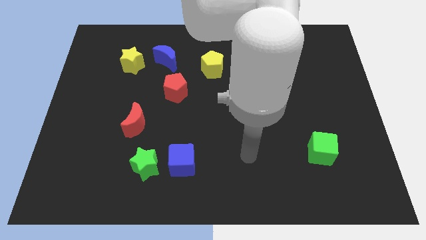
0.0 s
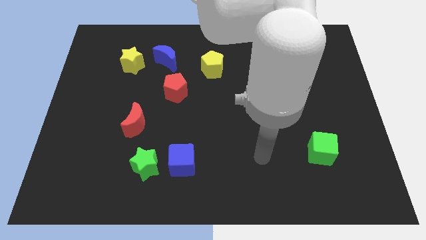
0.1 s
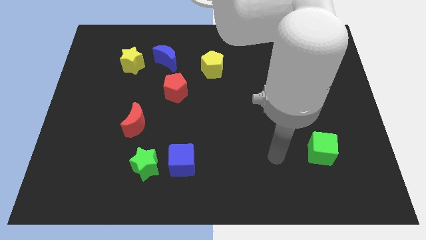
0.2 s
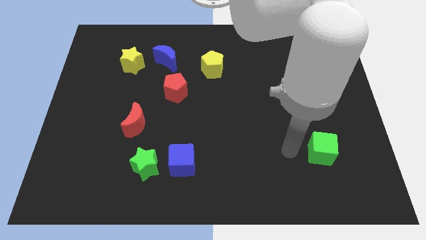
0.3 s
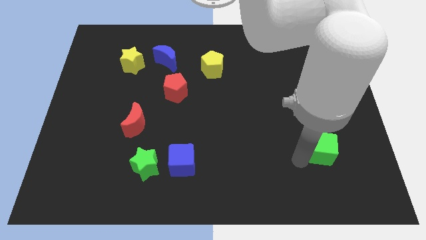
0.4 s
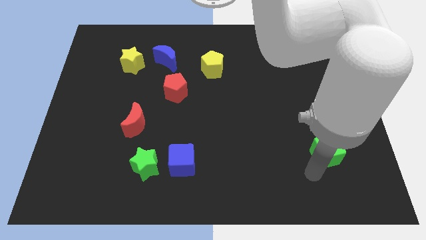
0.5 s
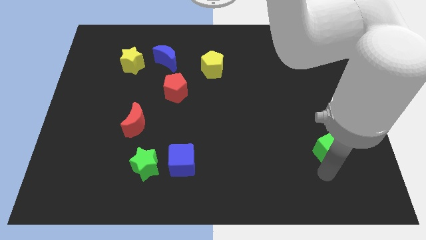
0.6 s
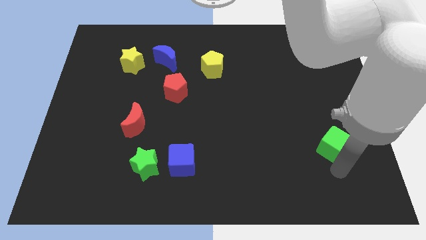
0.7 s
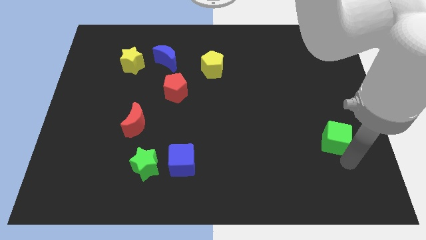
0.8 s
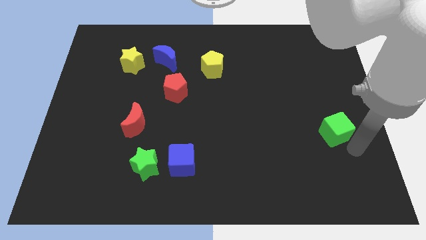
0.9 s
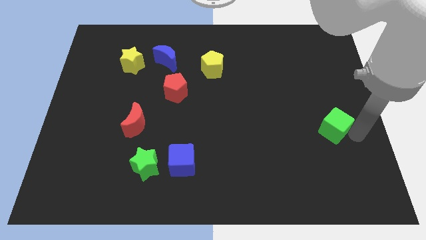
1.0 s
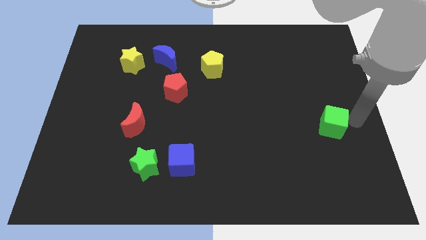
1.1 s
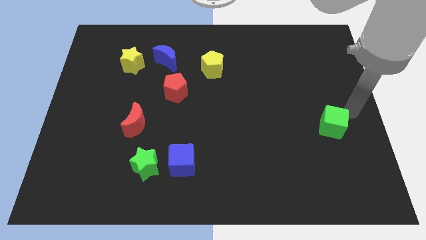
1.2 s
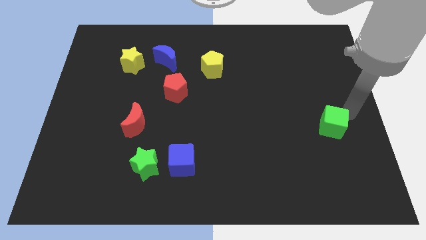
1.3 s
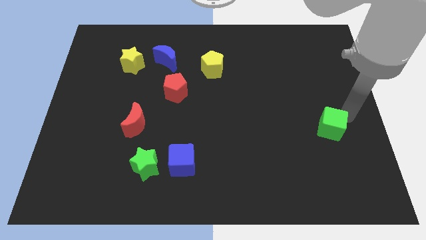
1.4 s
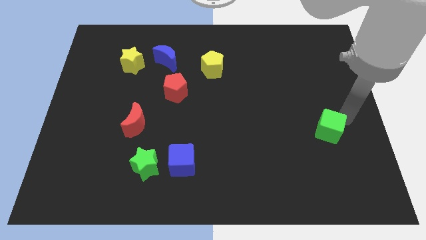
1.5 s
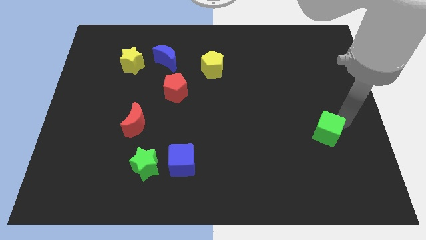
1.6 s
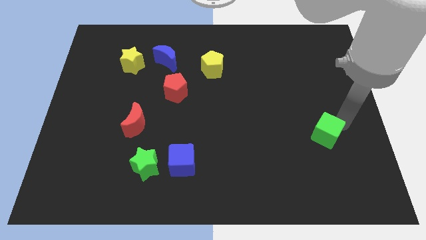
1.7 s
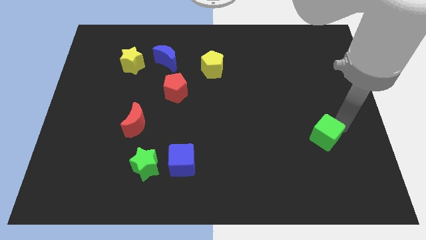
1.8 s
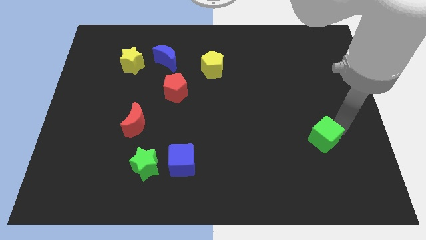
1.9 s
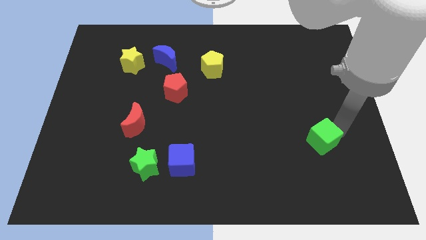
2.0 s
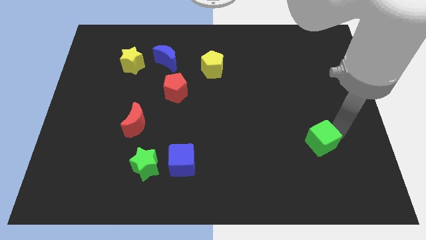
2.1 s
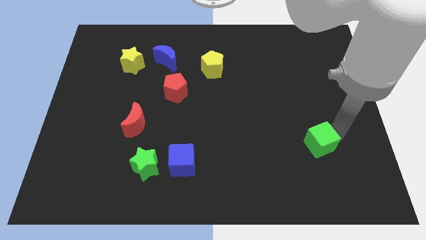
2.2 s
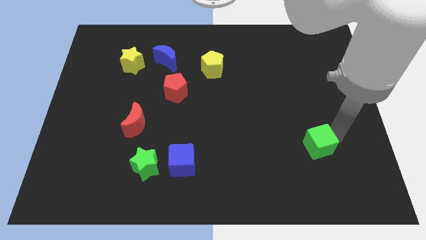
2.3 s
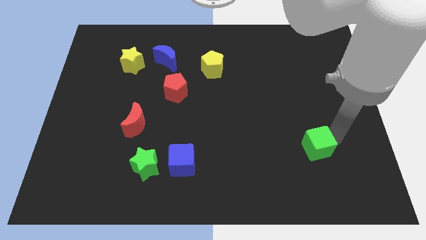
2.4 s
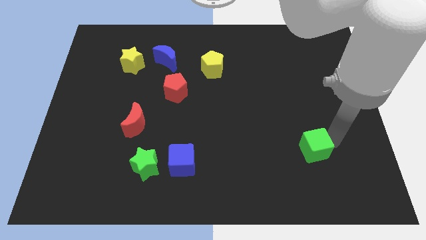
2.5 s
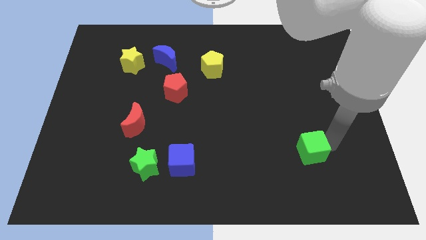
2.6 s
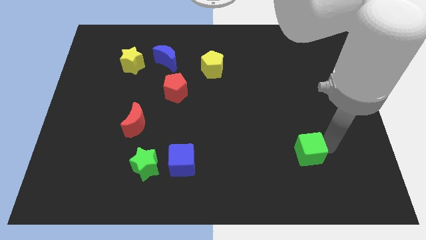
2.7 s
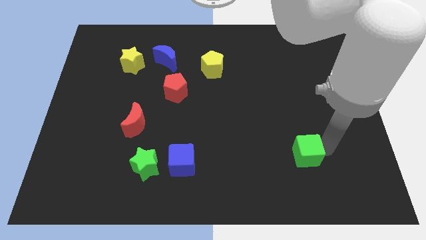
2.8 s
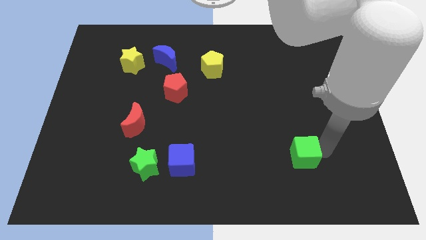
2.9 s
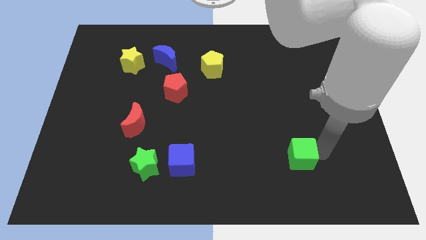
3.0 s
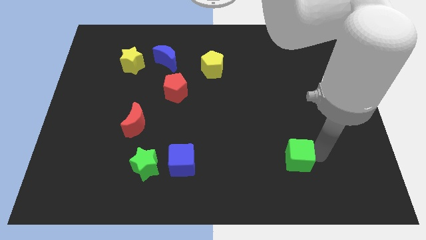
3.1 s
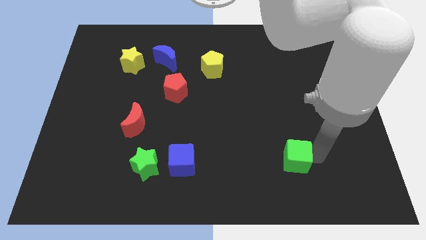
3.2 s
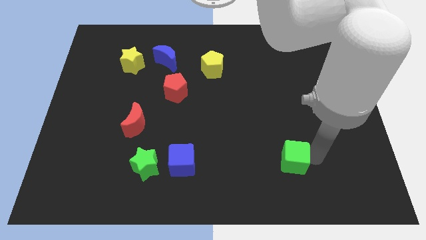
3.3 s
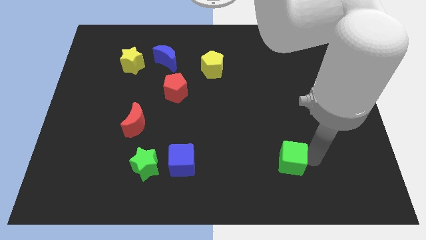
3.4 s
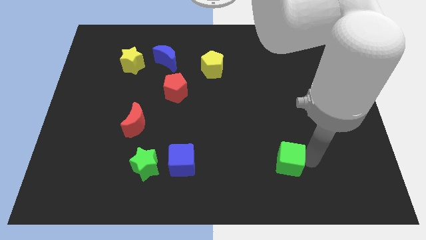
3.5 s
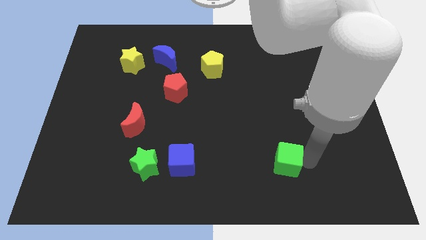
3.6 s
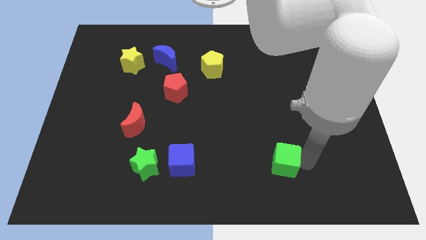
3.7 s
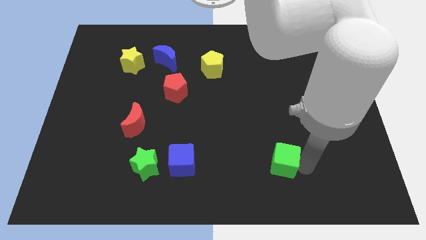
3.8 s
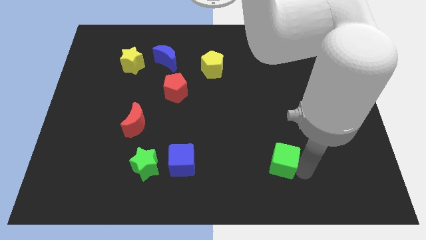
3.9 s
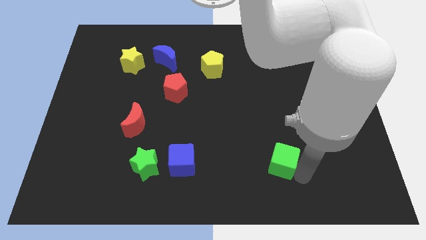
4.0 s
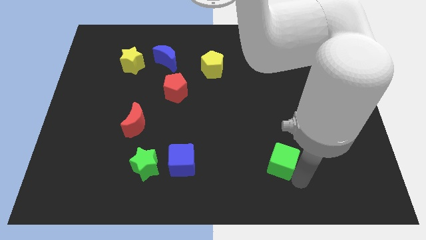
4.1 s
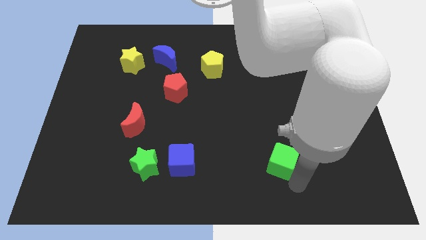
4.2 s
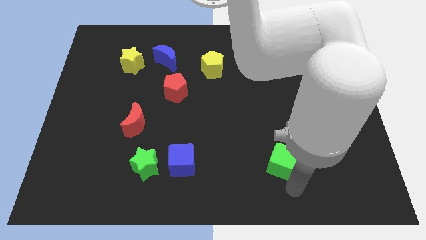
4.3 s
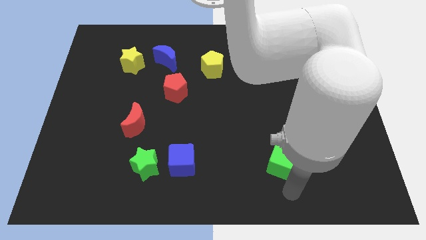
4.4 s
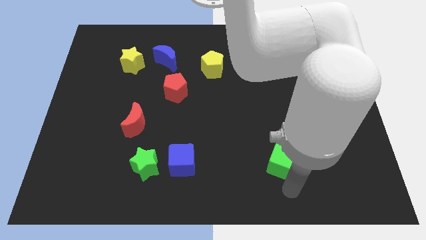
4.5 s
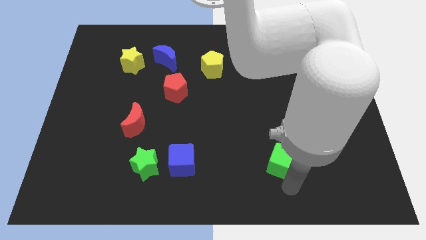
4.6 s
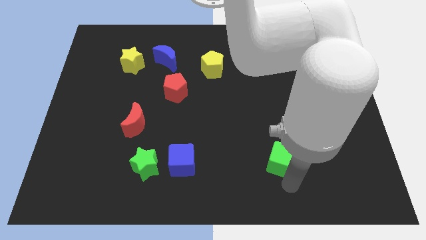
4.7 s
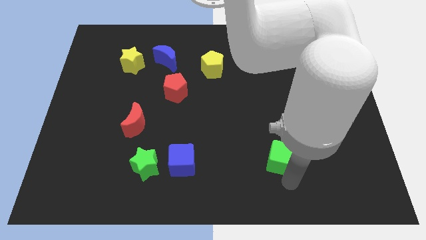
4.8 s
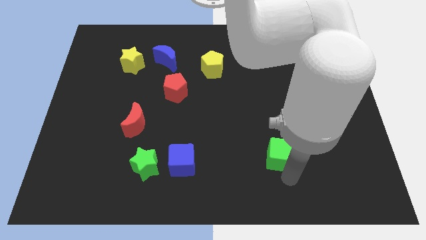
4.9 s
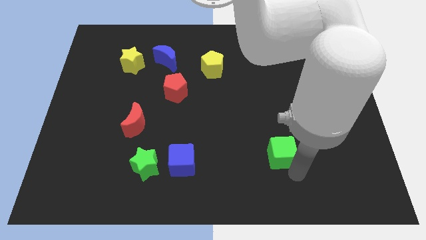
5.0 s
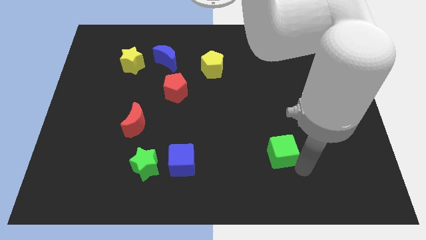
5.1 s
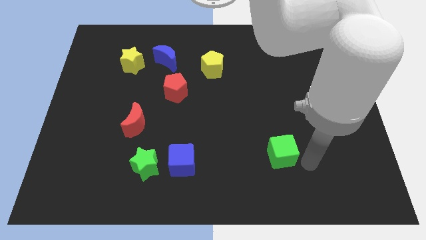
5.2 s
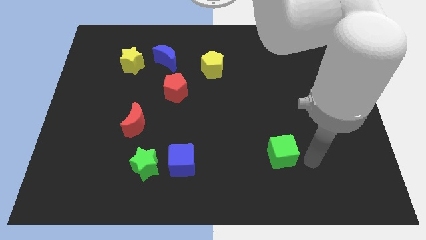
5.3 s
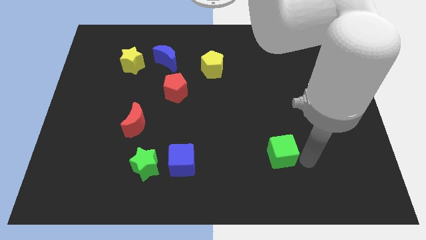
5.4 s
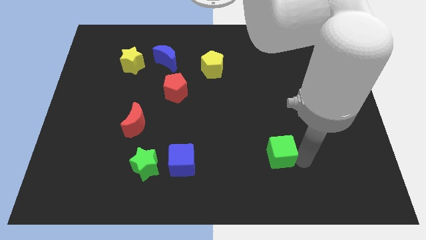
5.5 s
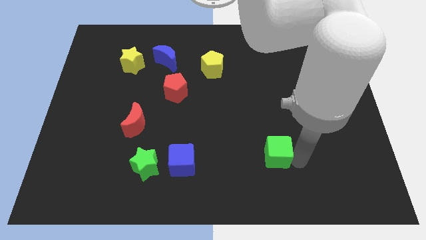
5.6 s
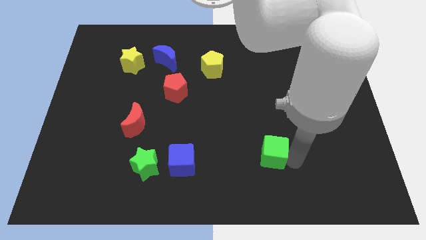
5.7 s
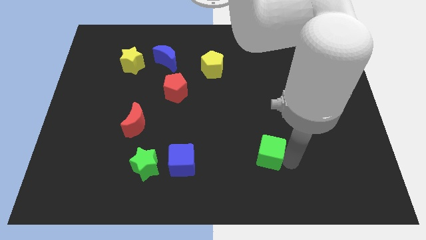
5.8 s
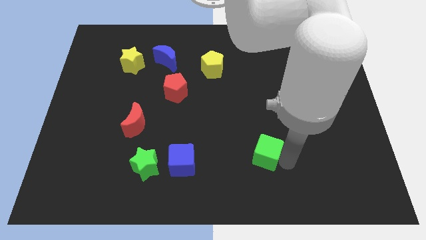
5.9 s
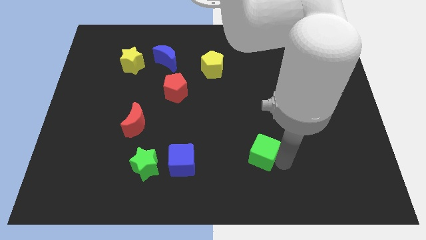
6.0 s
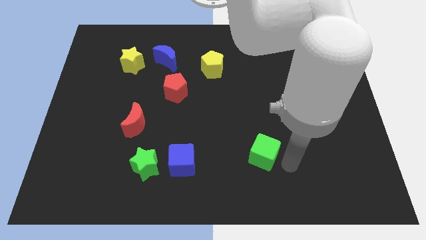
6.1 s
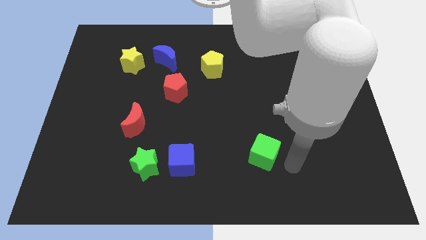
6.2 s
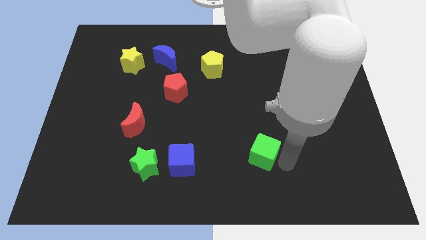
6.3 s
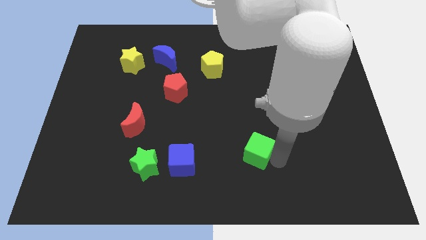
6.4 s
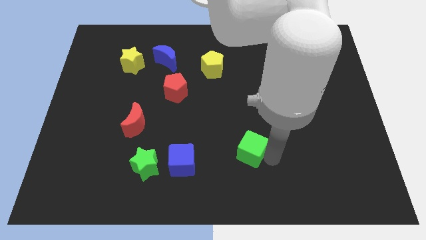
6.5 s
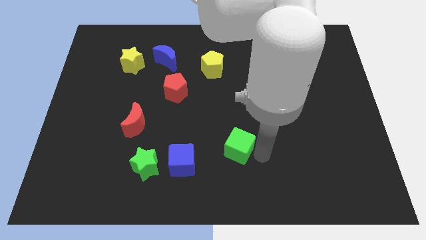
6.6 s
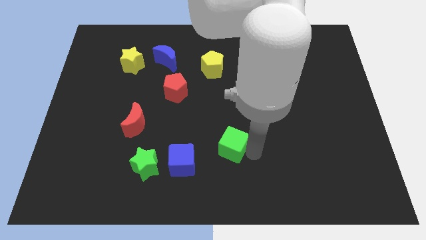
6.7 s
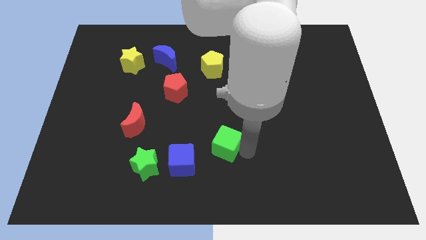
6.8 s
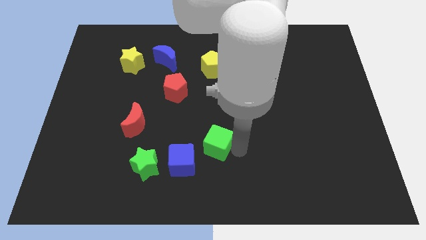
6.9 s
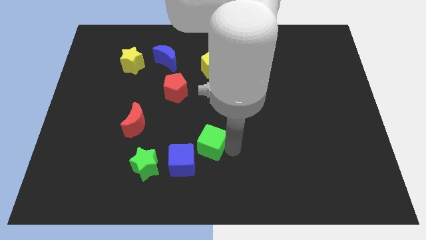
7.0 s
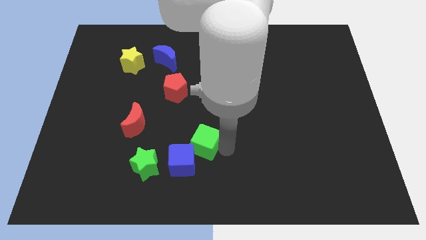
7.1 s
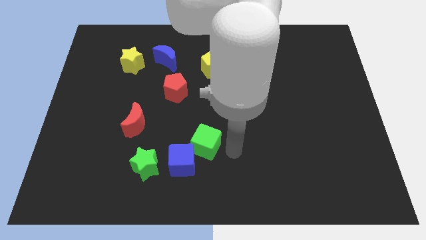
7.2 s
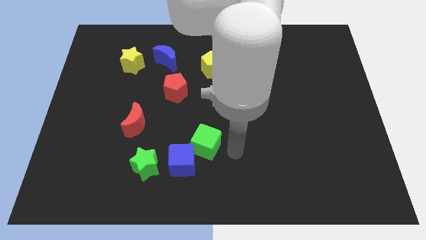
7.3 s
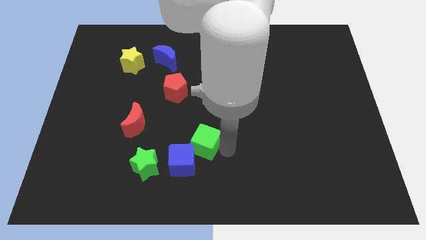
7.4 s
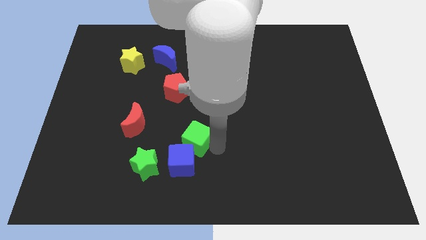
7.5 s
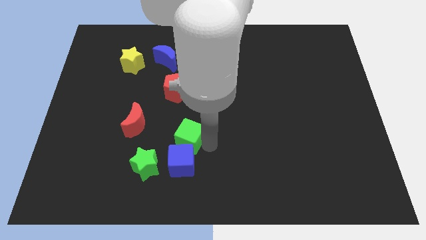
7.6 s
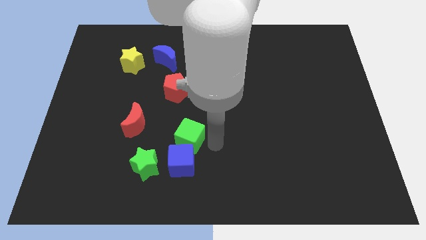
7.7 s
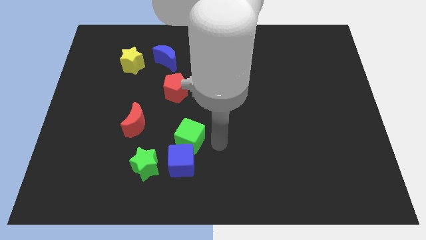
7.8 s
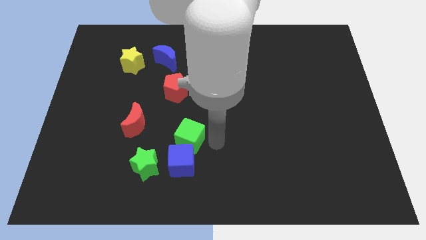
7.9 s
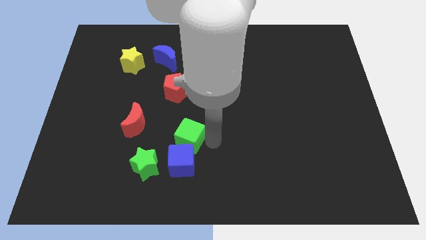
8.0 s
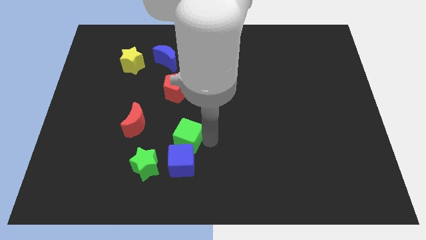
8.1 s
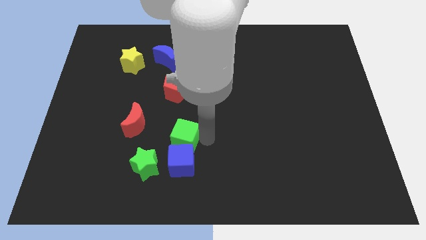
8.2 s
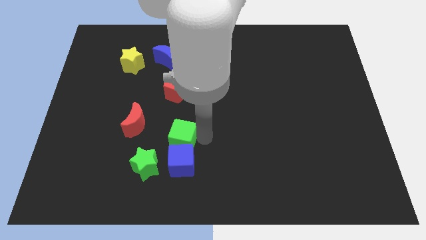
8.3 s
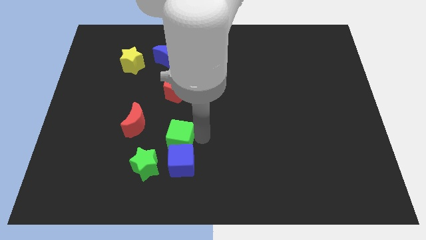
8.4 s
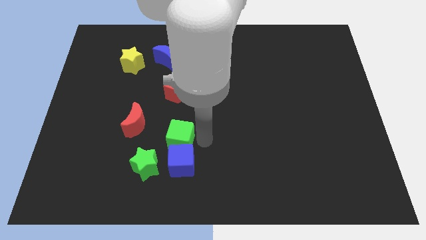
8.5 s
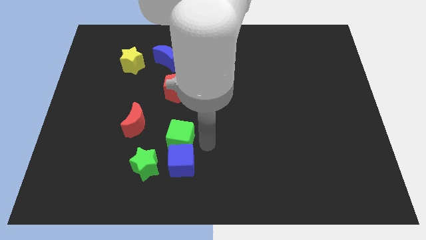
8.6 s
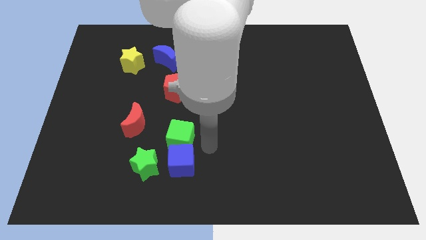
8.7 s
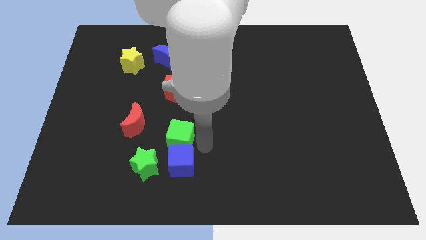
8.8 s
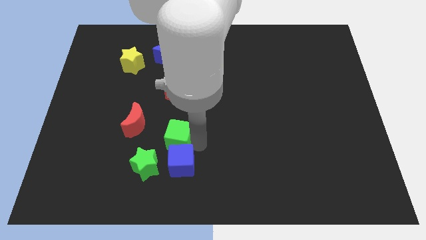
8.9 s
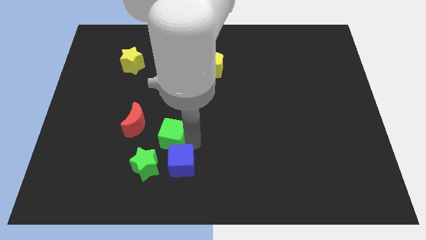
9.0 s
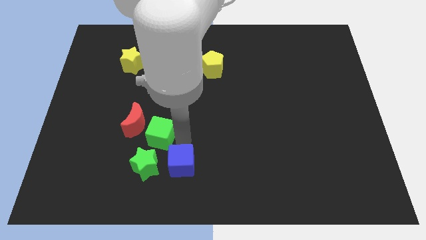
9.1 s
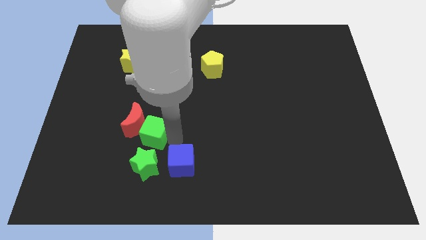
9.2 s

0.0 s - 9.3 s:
push the green cube to the red moon
